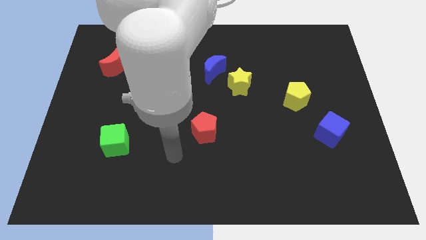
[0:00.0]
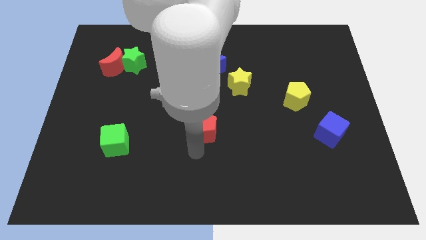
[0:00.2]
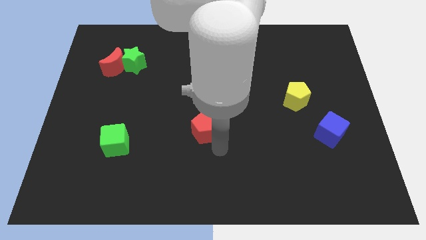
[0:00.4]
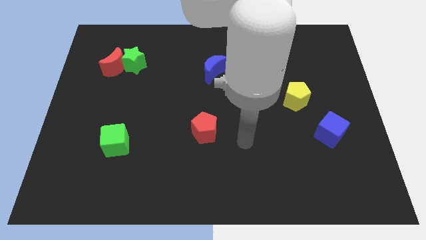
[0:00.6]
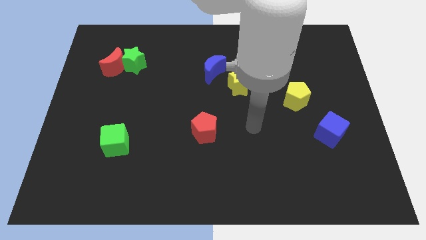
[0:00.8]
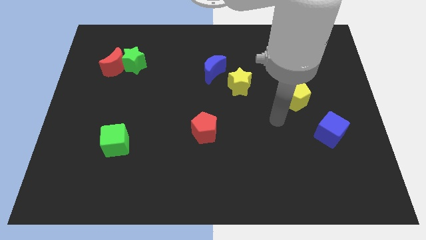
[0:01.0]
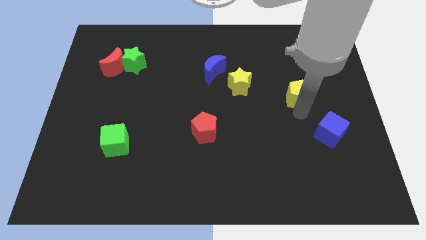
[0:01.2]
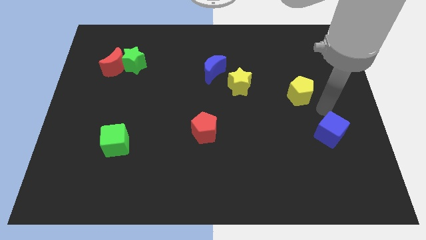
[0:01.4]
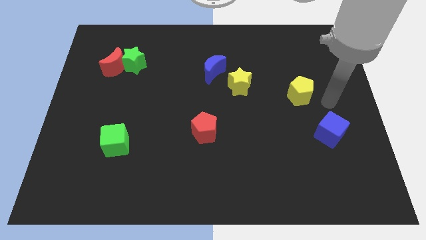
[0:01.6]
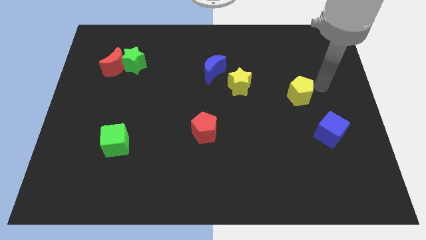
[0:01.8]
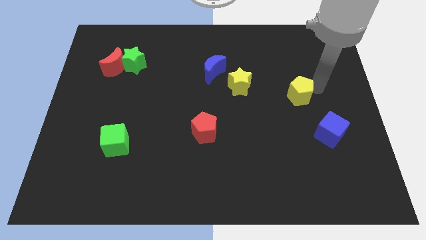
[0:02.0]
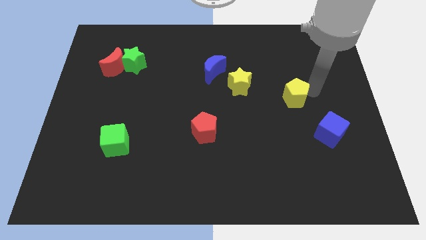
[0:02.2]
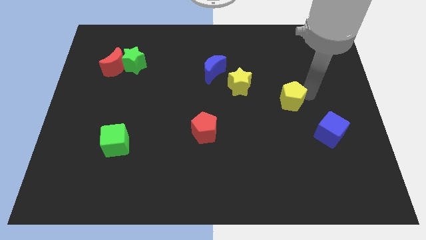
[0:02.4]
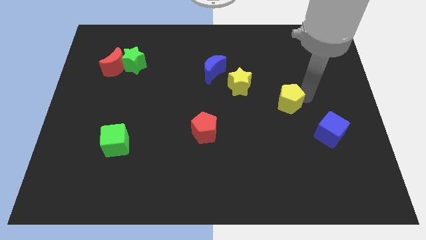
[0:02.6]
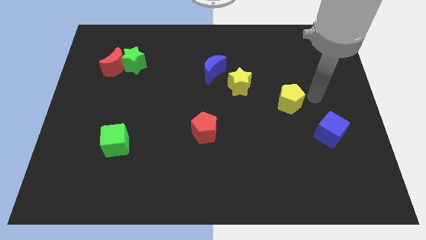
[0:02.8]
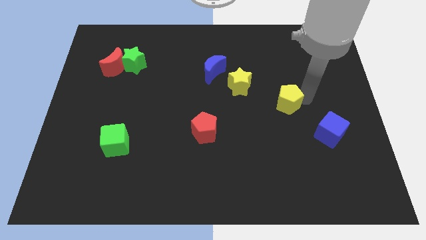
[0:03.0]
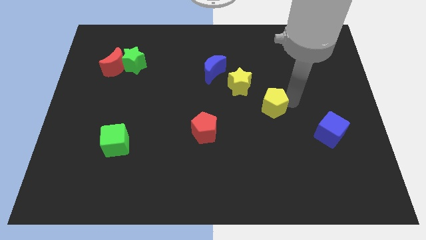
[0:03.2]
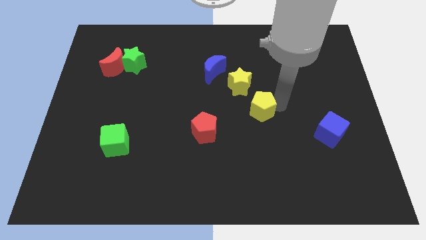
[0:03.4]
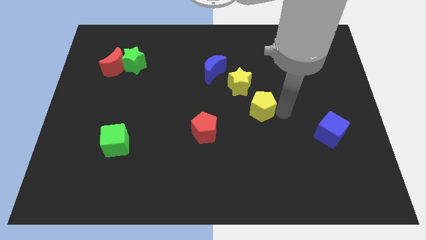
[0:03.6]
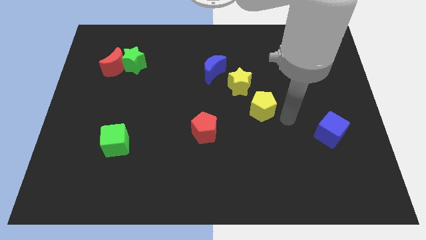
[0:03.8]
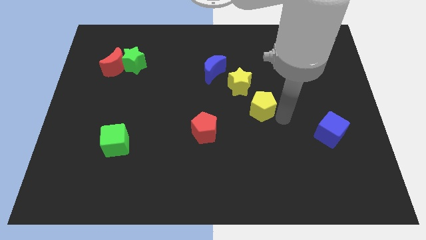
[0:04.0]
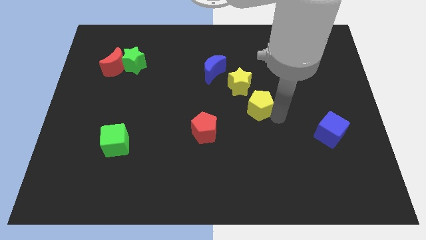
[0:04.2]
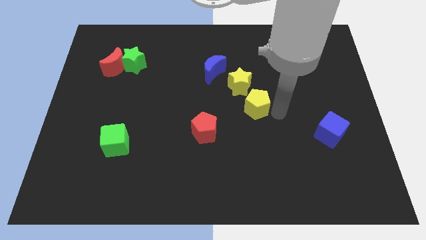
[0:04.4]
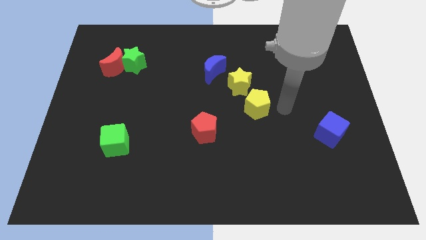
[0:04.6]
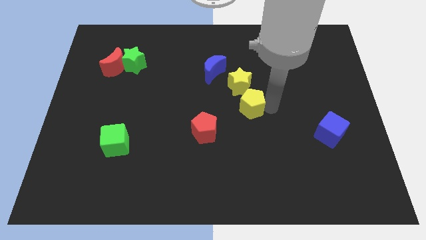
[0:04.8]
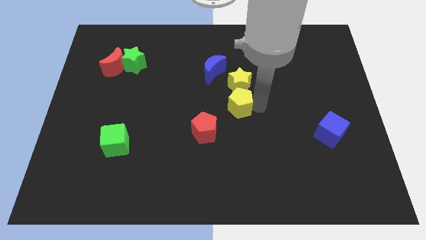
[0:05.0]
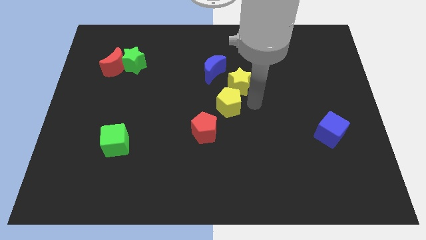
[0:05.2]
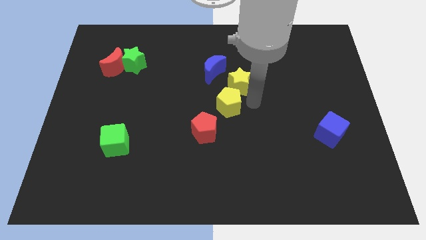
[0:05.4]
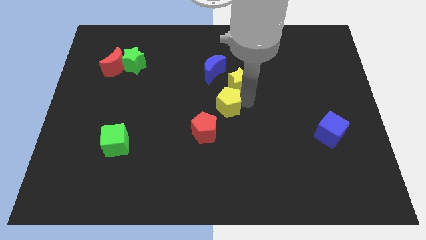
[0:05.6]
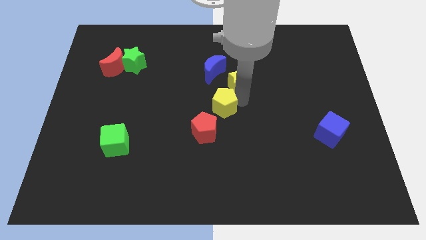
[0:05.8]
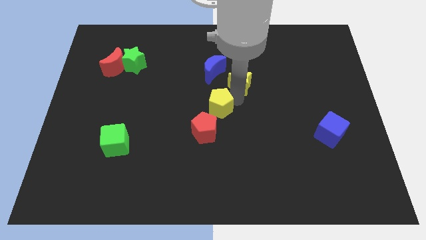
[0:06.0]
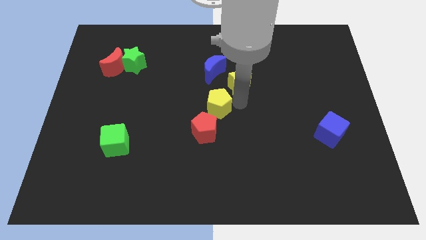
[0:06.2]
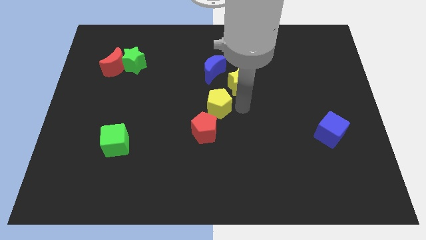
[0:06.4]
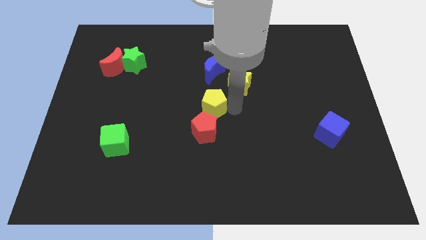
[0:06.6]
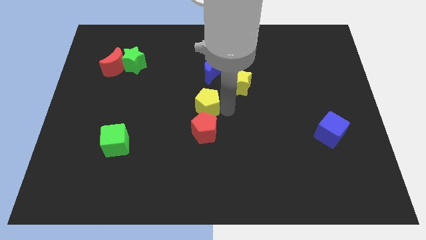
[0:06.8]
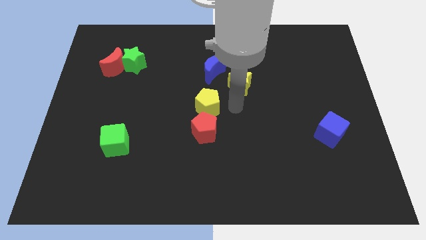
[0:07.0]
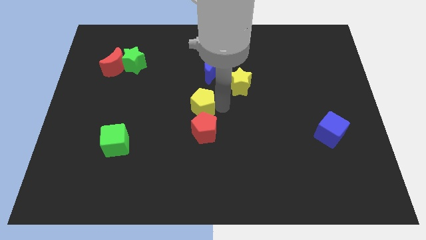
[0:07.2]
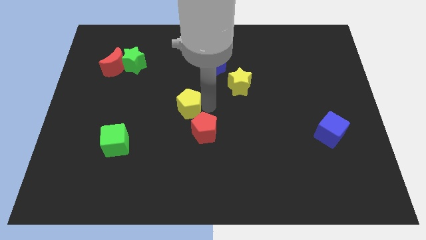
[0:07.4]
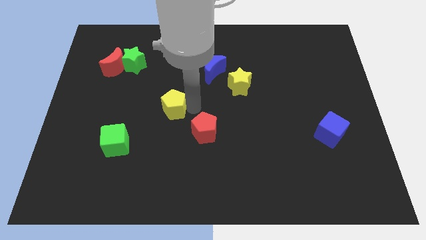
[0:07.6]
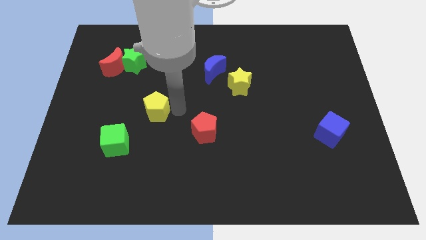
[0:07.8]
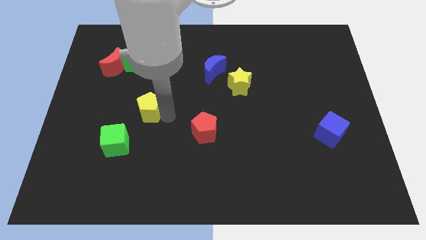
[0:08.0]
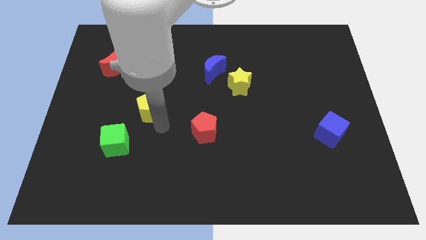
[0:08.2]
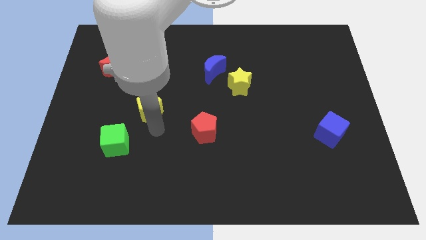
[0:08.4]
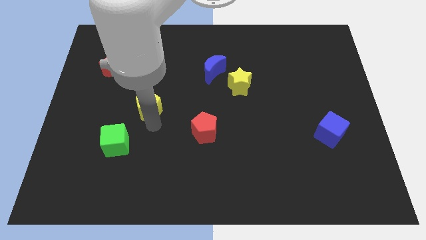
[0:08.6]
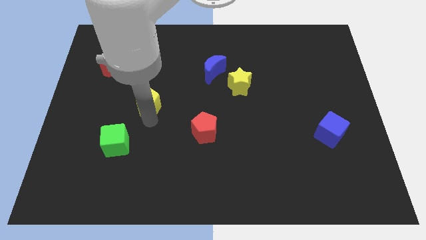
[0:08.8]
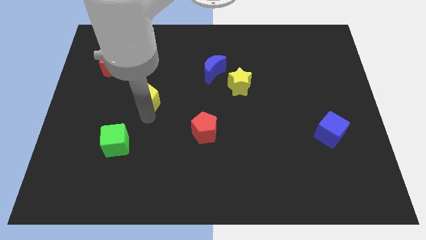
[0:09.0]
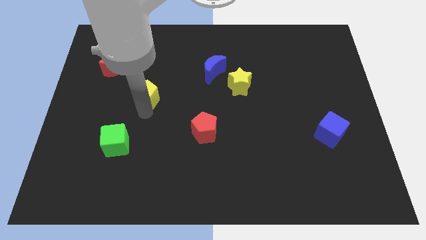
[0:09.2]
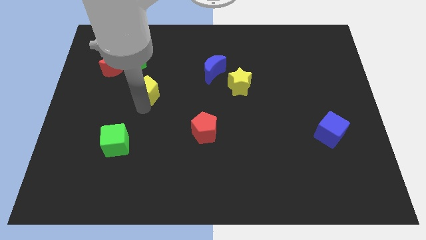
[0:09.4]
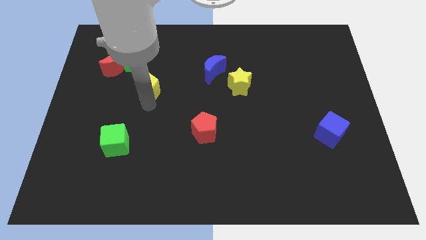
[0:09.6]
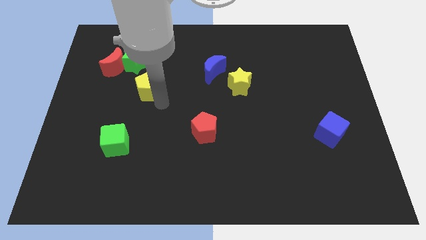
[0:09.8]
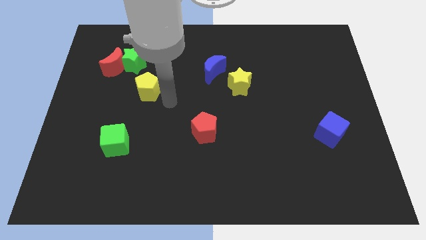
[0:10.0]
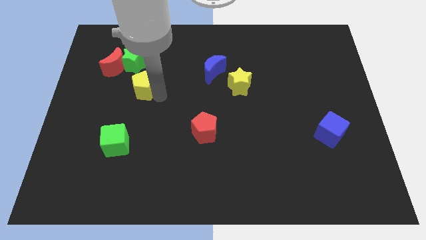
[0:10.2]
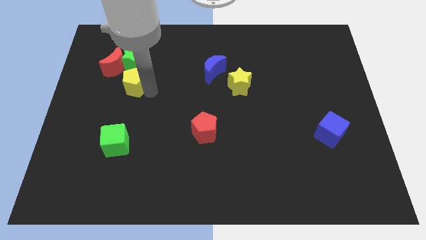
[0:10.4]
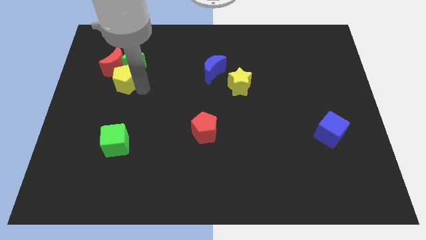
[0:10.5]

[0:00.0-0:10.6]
slide the yellow pentagon next to the red moon

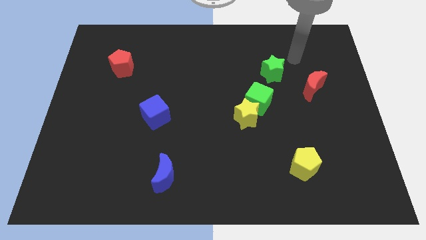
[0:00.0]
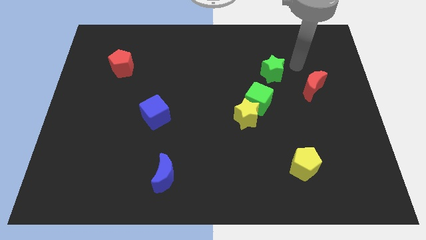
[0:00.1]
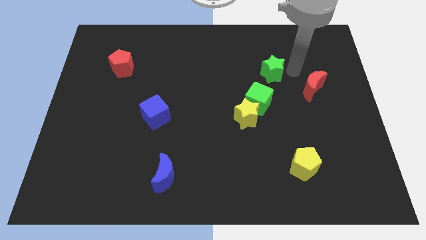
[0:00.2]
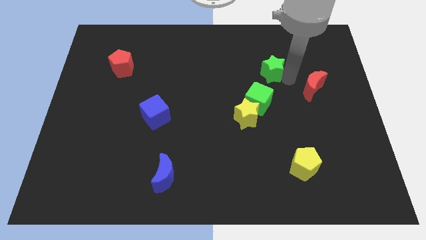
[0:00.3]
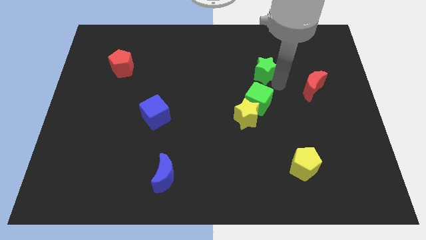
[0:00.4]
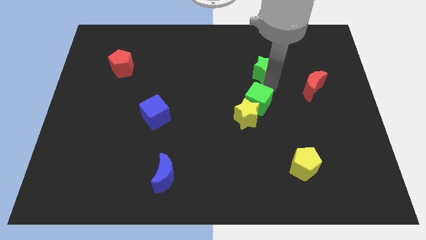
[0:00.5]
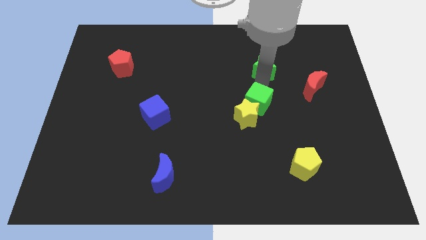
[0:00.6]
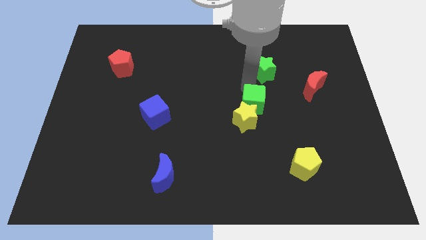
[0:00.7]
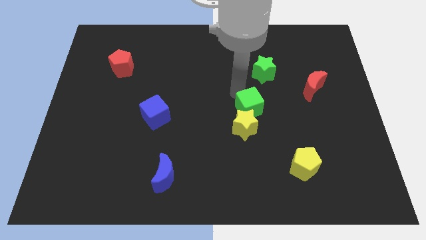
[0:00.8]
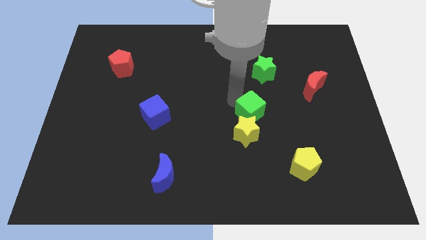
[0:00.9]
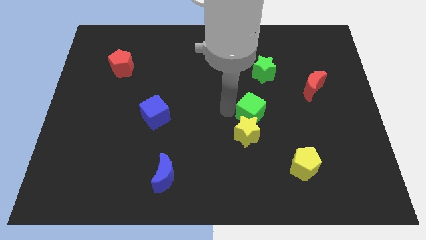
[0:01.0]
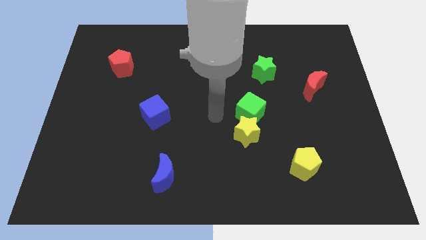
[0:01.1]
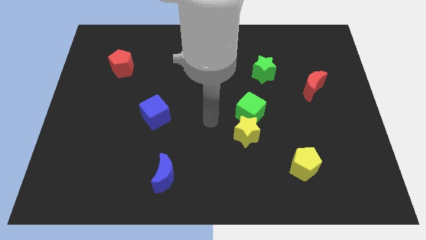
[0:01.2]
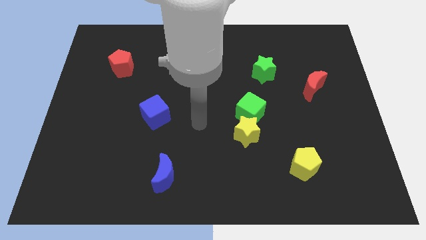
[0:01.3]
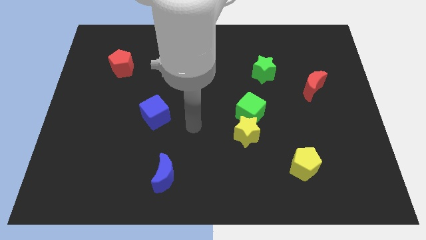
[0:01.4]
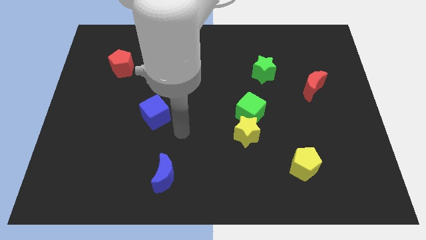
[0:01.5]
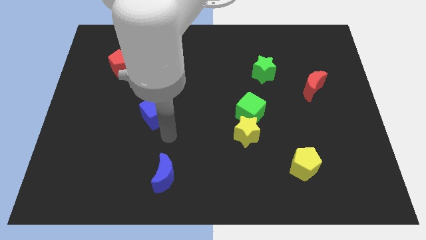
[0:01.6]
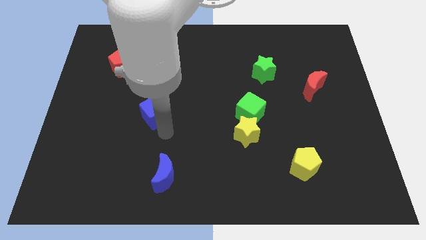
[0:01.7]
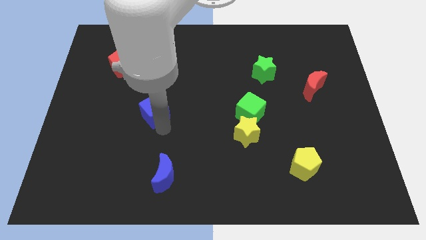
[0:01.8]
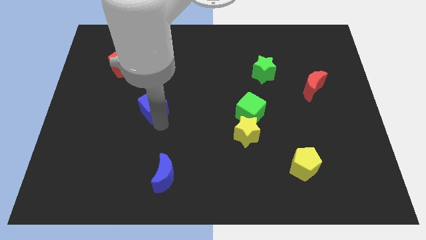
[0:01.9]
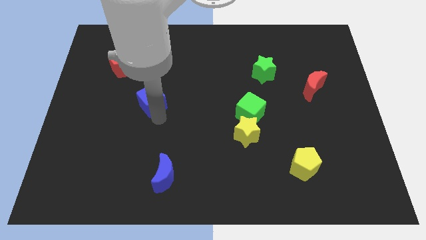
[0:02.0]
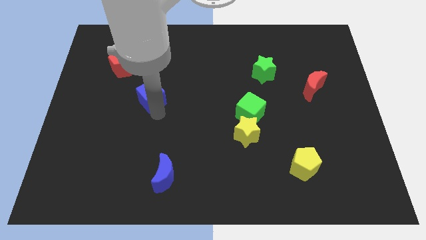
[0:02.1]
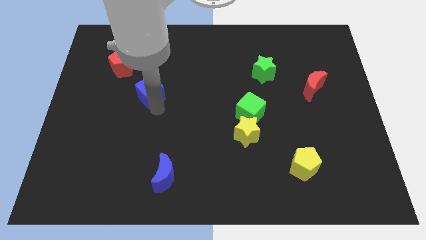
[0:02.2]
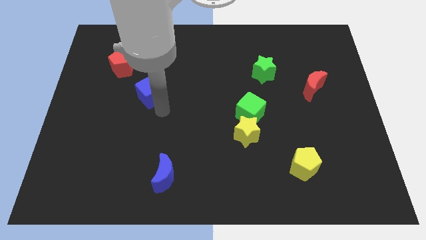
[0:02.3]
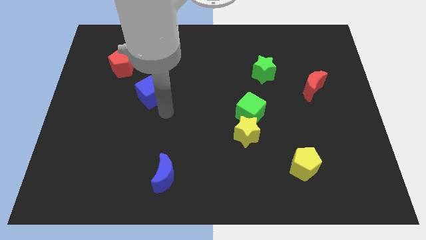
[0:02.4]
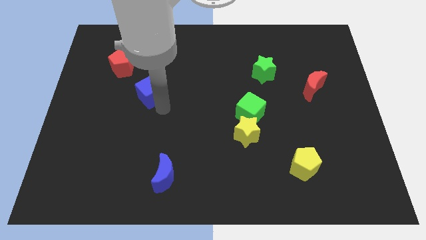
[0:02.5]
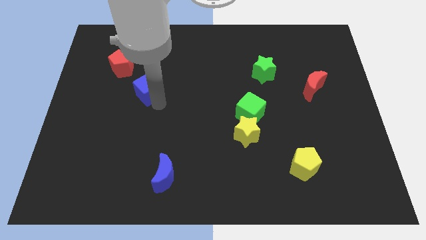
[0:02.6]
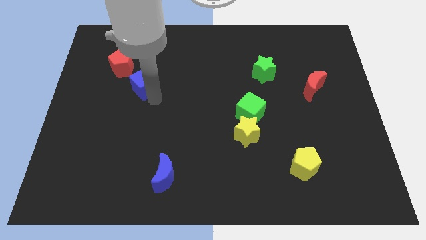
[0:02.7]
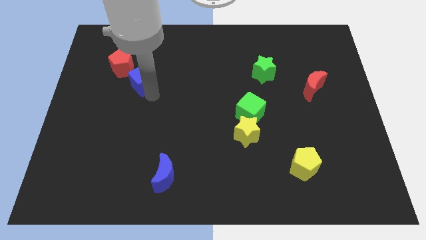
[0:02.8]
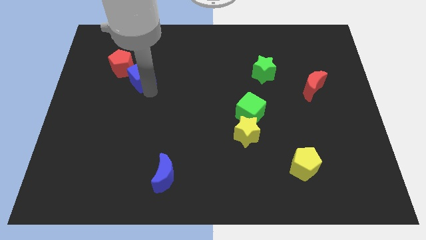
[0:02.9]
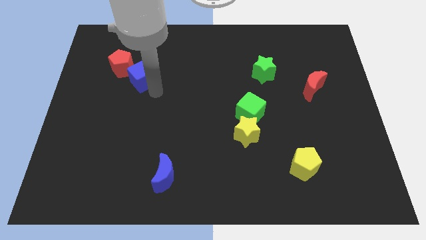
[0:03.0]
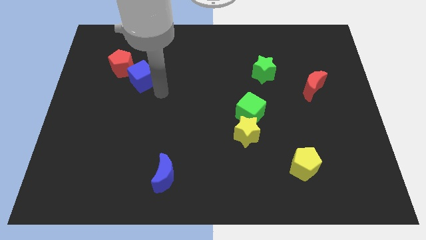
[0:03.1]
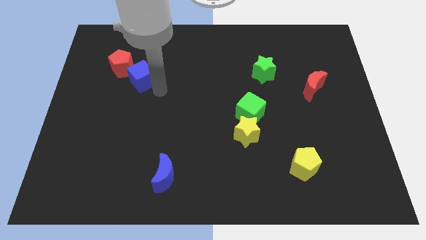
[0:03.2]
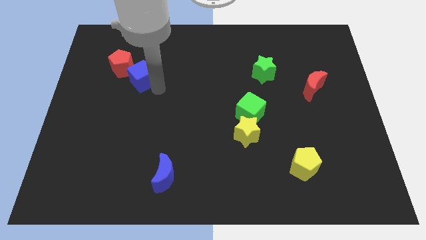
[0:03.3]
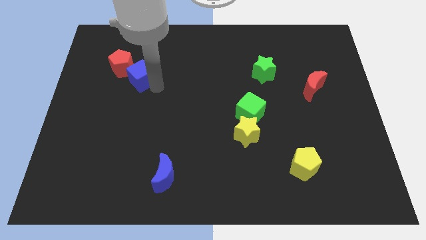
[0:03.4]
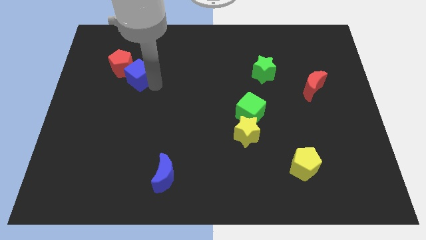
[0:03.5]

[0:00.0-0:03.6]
put the blue cube close to the red pentagon
